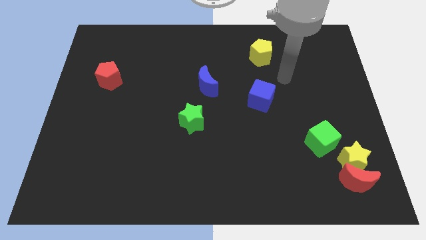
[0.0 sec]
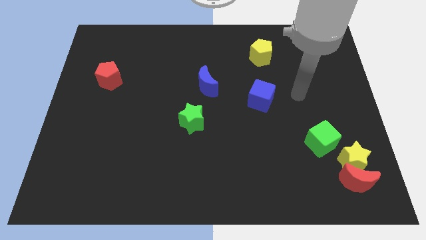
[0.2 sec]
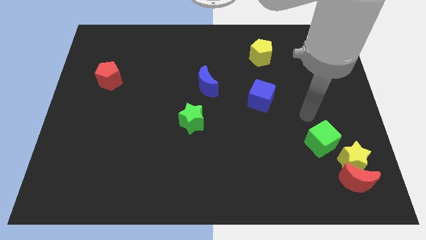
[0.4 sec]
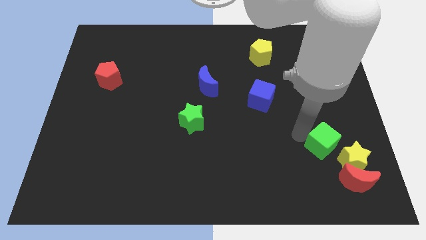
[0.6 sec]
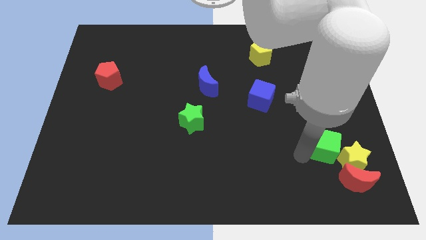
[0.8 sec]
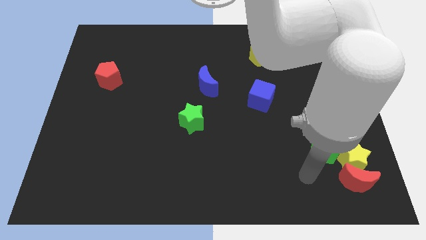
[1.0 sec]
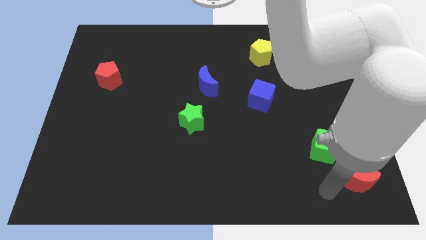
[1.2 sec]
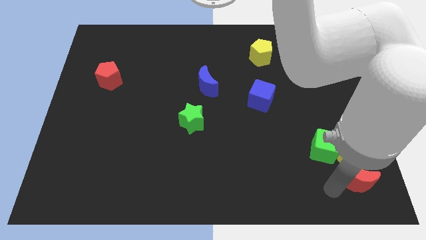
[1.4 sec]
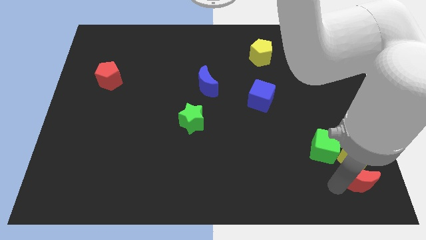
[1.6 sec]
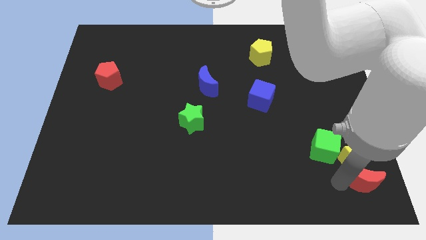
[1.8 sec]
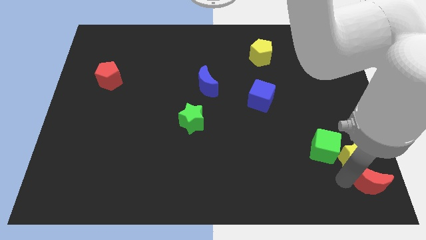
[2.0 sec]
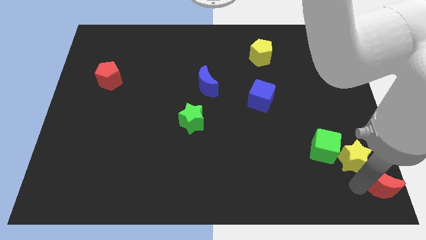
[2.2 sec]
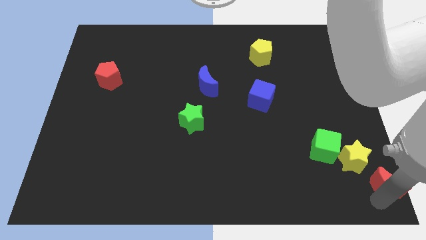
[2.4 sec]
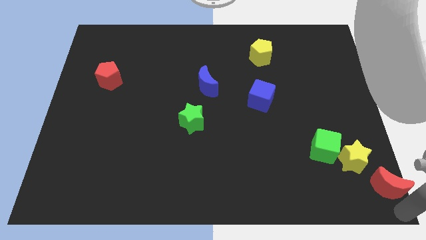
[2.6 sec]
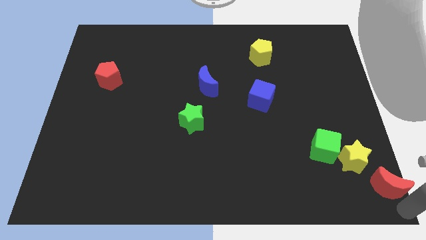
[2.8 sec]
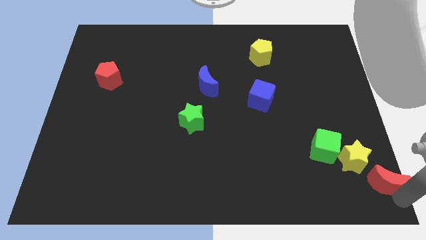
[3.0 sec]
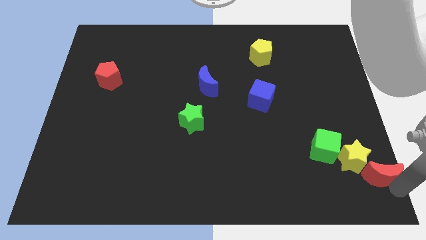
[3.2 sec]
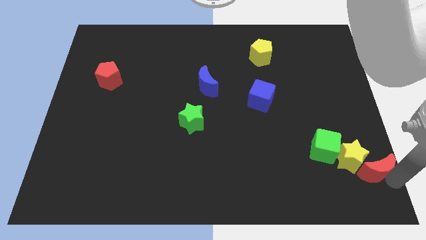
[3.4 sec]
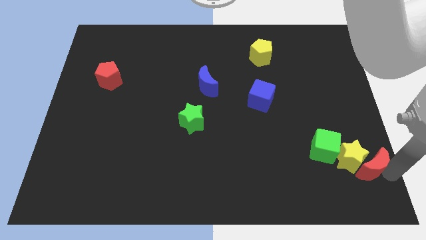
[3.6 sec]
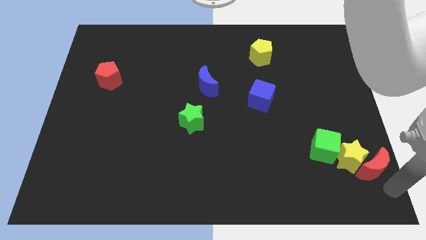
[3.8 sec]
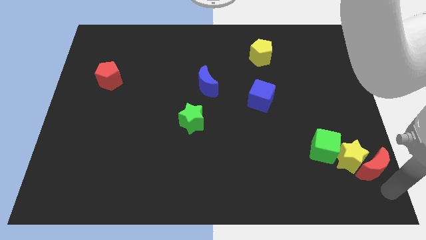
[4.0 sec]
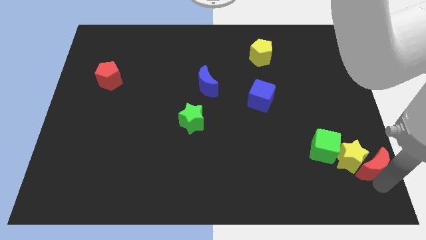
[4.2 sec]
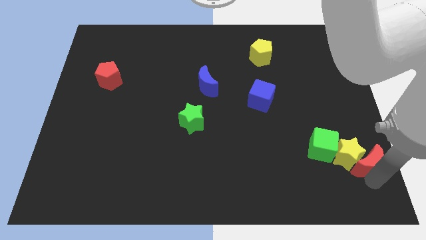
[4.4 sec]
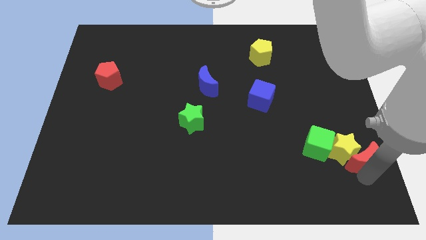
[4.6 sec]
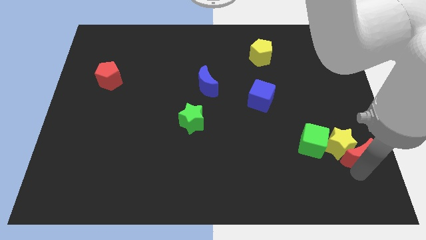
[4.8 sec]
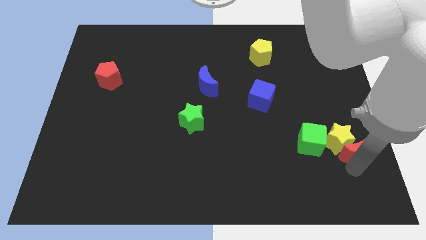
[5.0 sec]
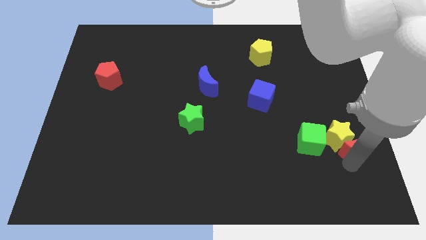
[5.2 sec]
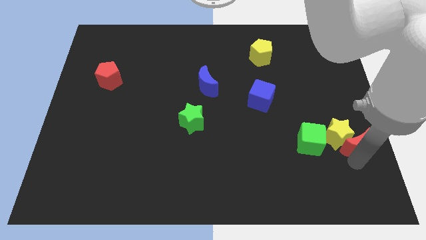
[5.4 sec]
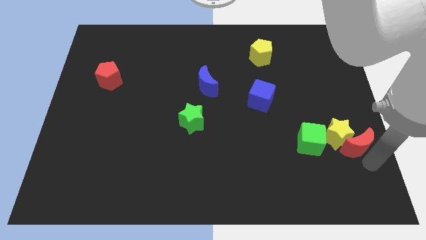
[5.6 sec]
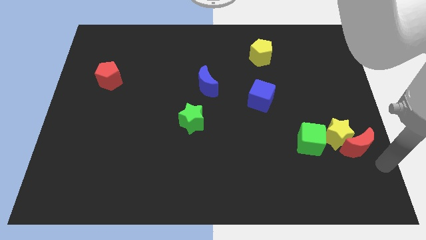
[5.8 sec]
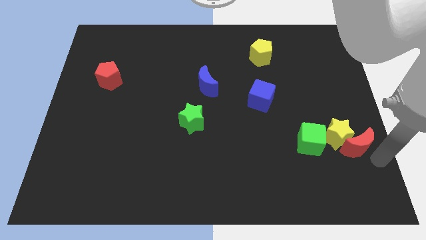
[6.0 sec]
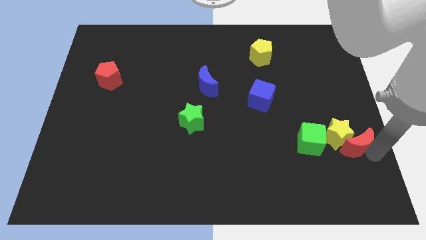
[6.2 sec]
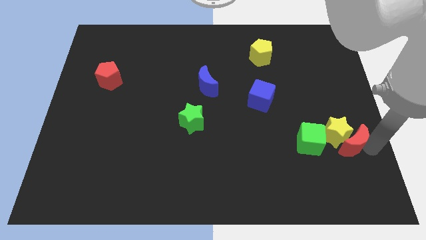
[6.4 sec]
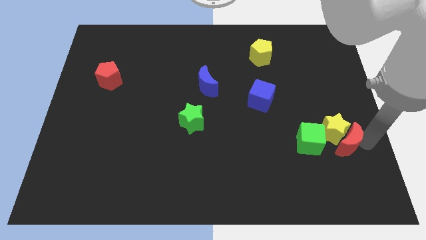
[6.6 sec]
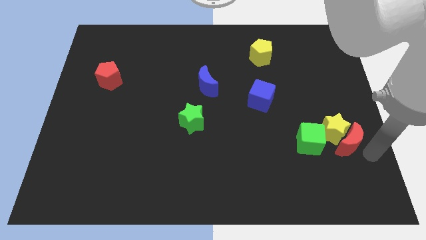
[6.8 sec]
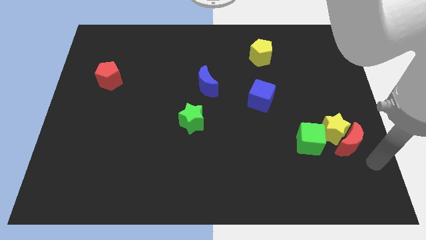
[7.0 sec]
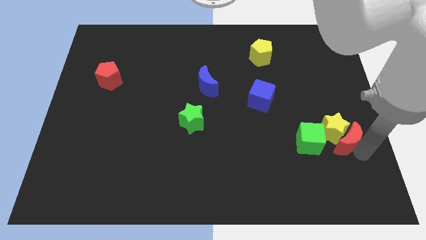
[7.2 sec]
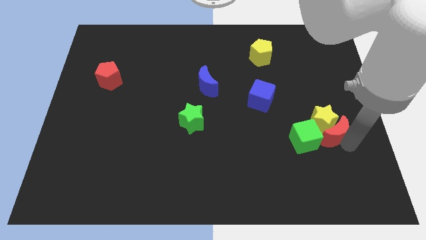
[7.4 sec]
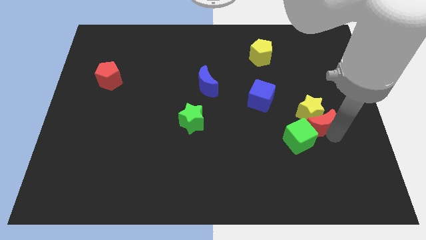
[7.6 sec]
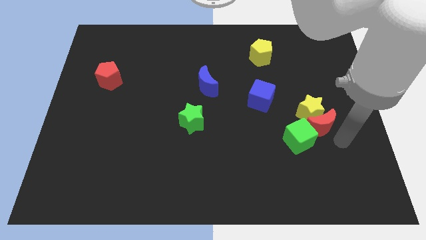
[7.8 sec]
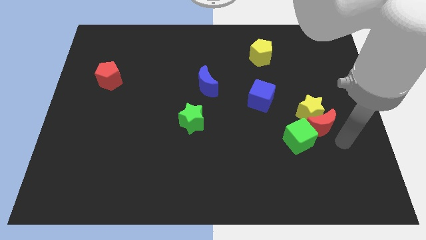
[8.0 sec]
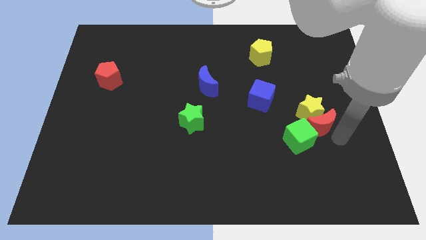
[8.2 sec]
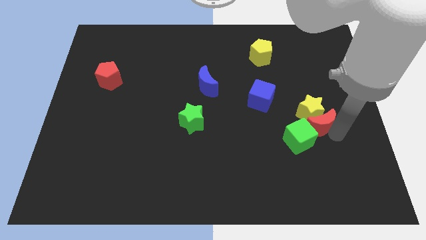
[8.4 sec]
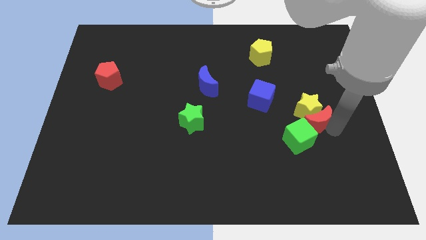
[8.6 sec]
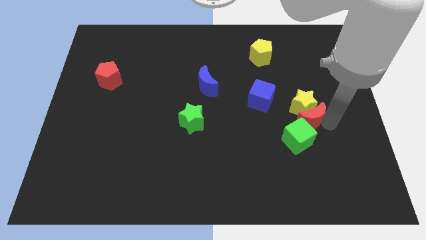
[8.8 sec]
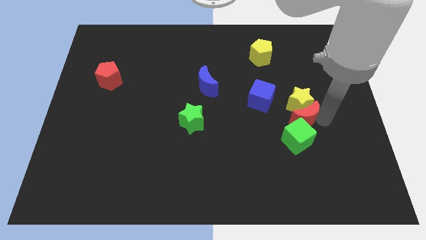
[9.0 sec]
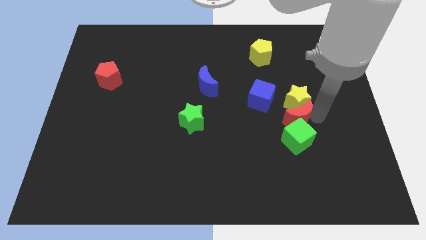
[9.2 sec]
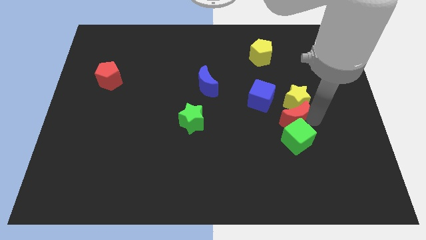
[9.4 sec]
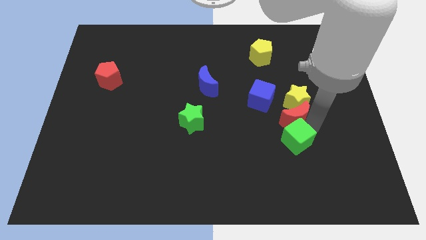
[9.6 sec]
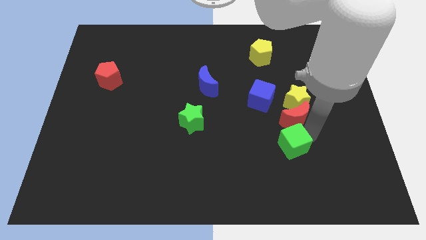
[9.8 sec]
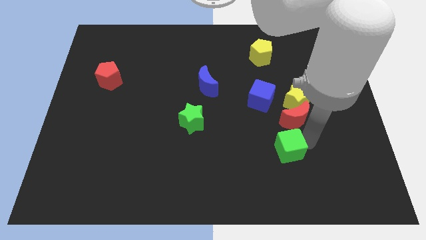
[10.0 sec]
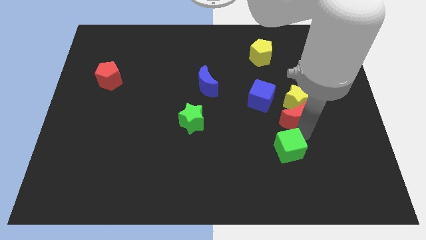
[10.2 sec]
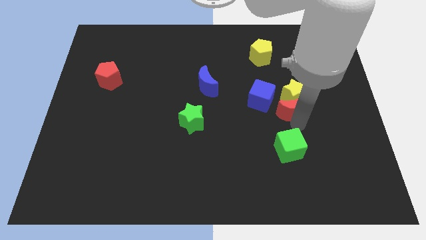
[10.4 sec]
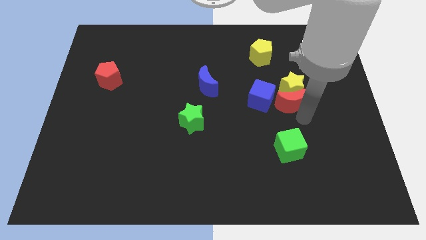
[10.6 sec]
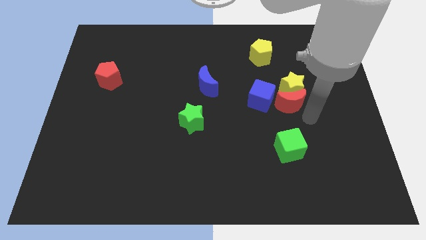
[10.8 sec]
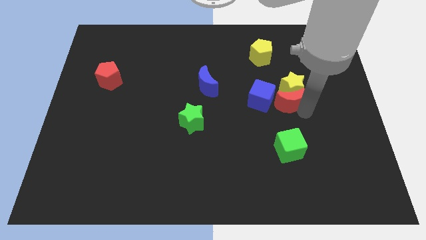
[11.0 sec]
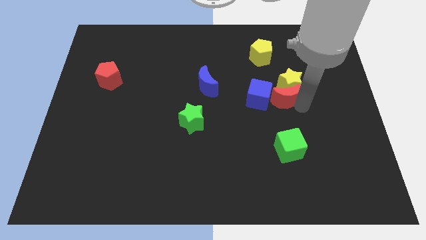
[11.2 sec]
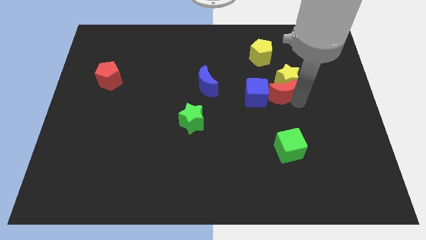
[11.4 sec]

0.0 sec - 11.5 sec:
put the red moon below the yellow pentagon

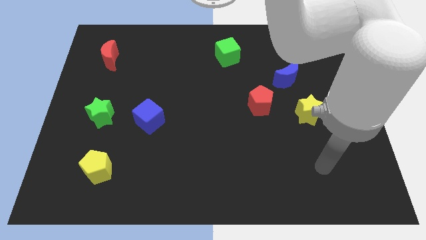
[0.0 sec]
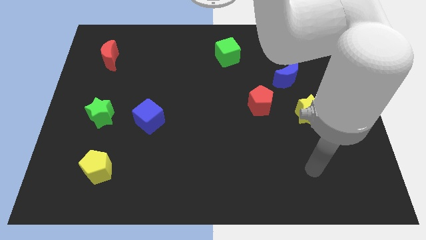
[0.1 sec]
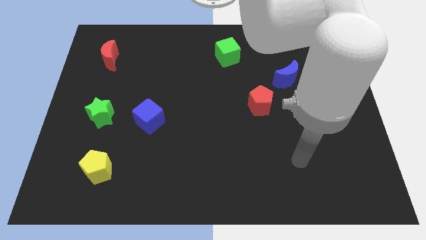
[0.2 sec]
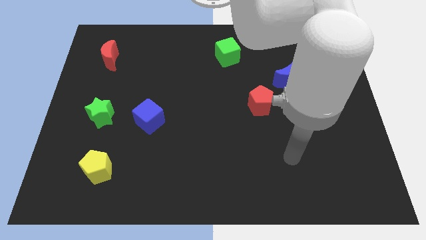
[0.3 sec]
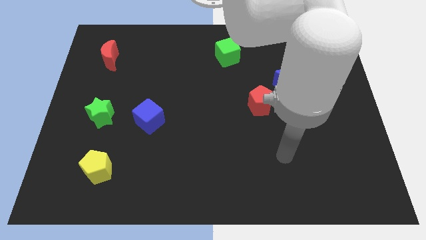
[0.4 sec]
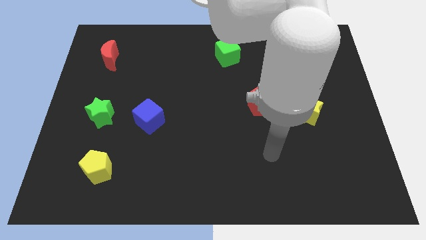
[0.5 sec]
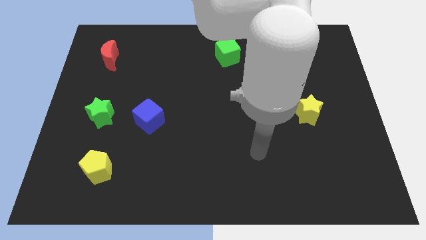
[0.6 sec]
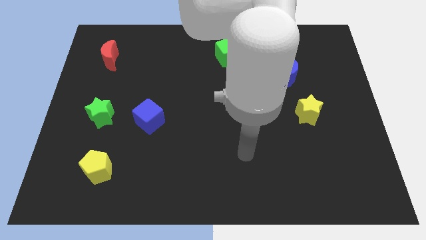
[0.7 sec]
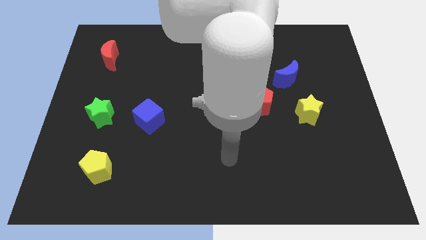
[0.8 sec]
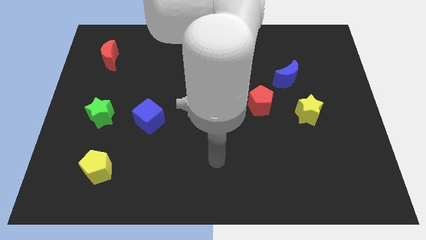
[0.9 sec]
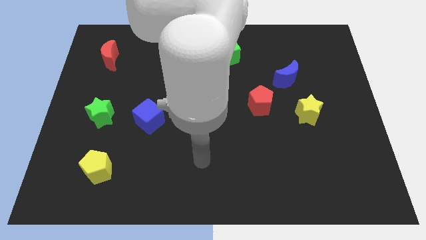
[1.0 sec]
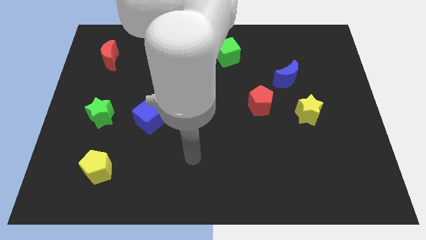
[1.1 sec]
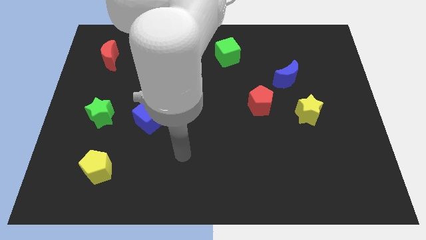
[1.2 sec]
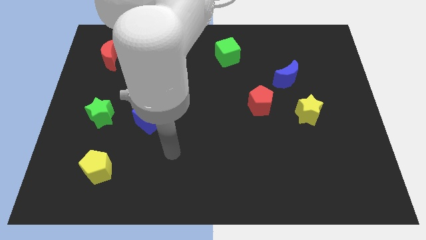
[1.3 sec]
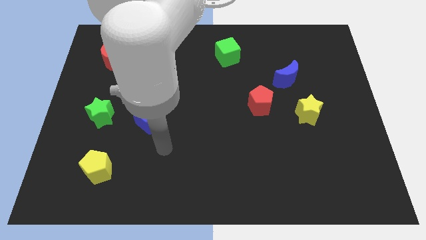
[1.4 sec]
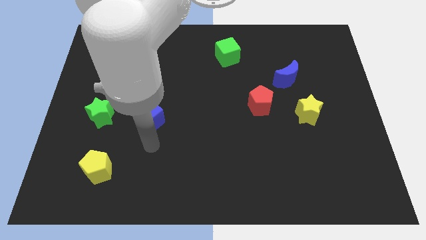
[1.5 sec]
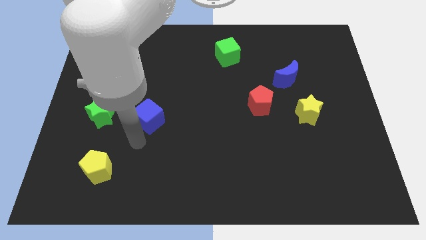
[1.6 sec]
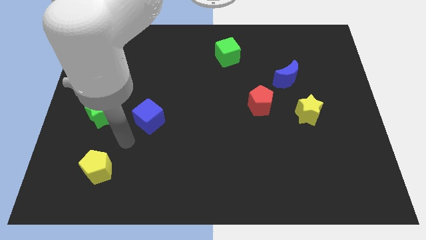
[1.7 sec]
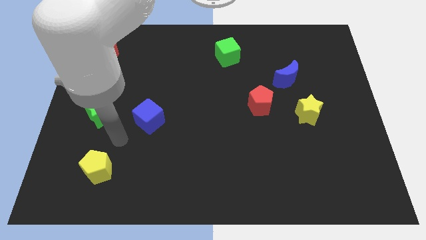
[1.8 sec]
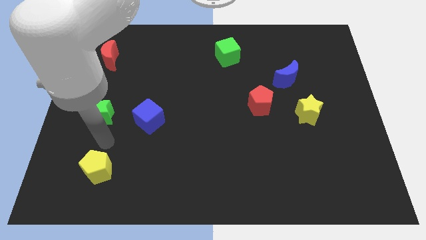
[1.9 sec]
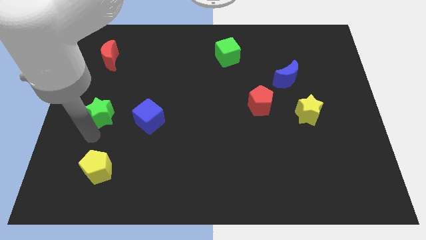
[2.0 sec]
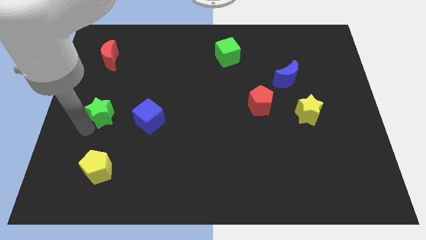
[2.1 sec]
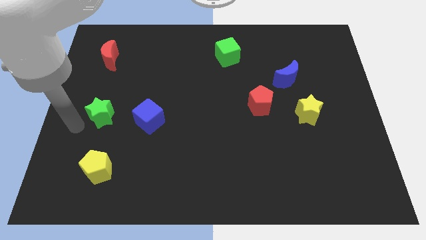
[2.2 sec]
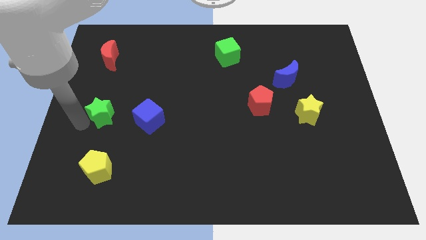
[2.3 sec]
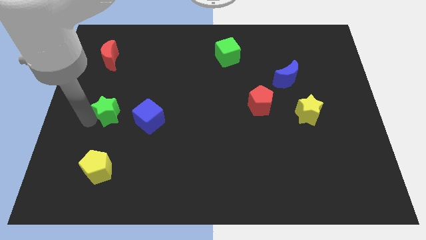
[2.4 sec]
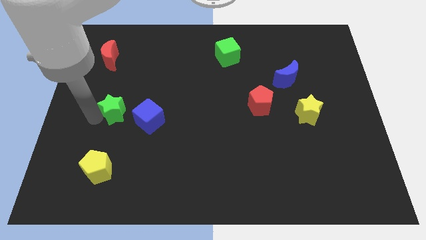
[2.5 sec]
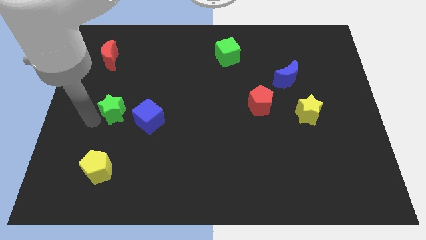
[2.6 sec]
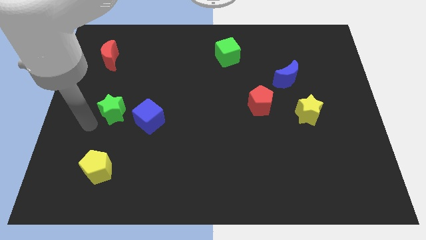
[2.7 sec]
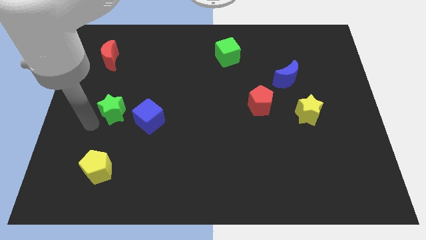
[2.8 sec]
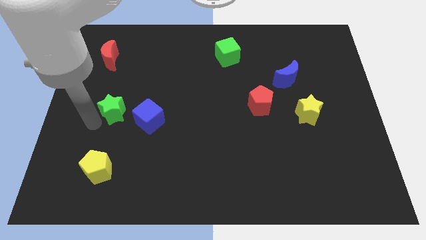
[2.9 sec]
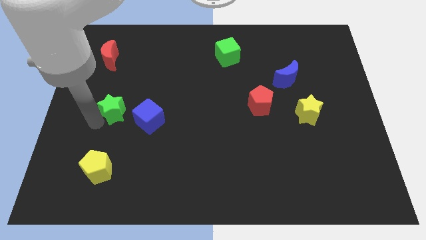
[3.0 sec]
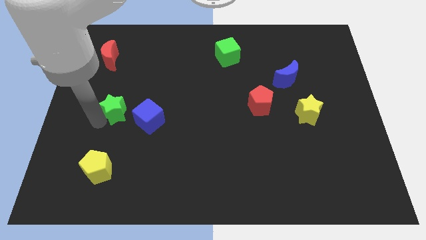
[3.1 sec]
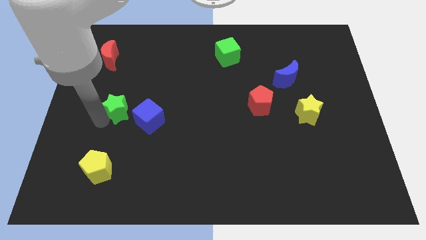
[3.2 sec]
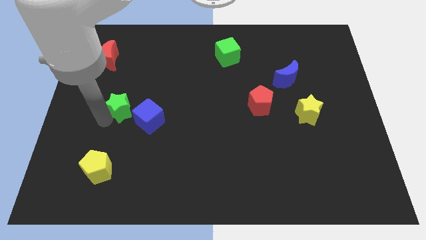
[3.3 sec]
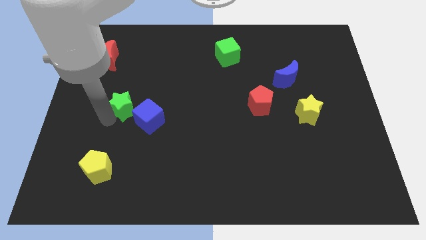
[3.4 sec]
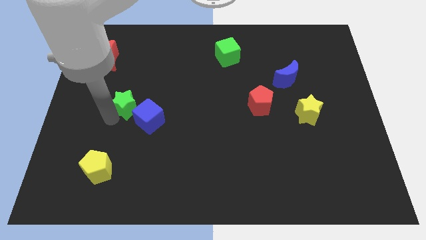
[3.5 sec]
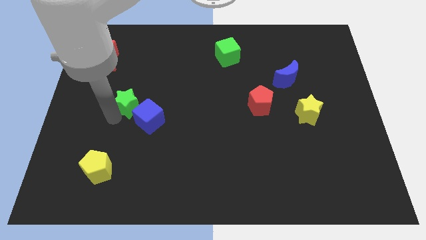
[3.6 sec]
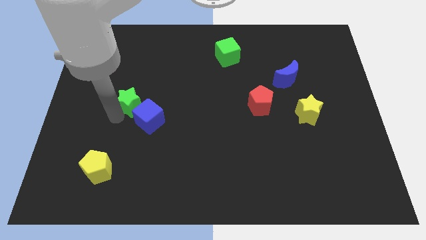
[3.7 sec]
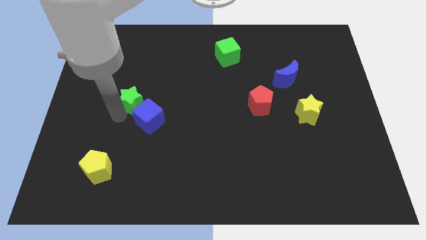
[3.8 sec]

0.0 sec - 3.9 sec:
slide the green star above the blue cube
